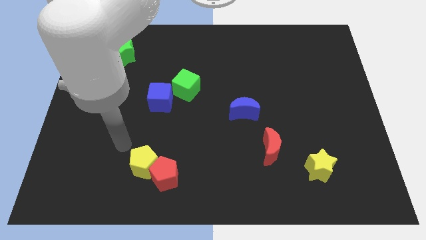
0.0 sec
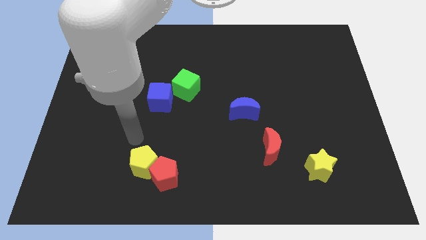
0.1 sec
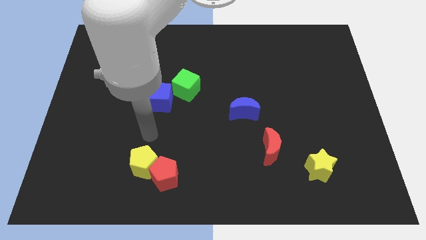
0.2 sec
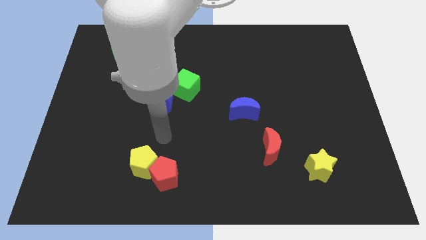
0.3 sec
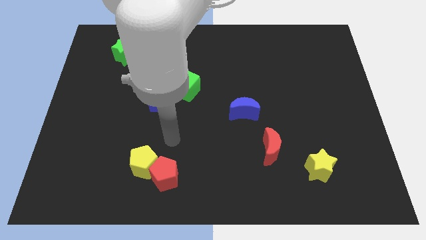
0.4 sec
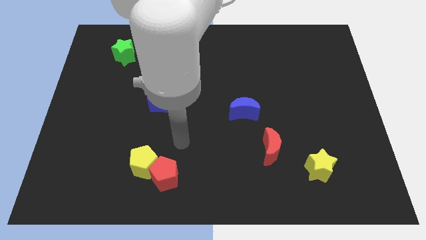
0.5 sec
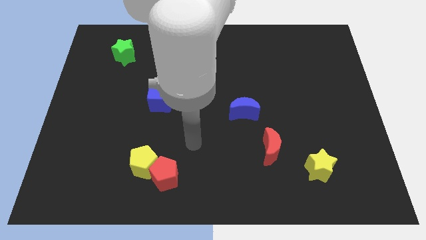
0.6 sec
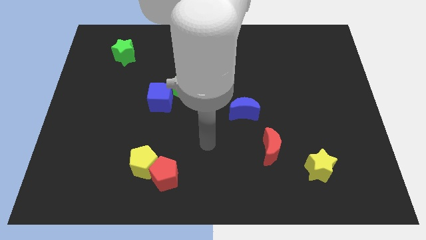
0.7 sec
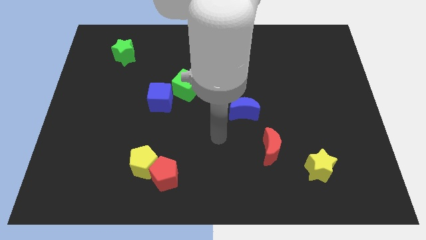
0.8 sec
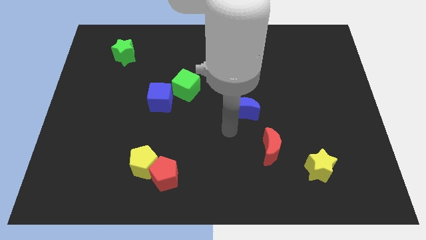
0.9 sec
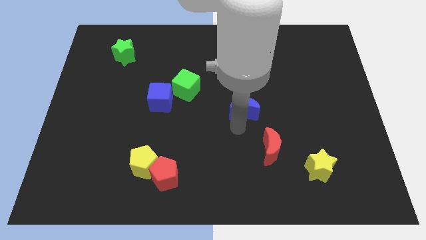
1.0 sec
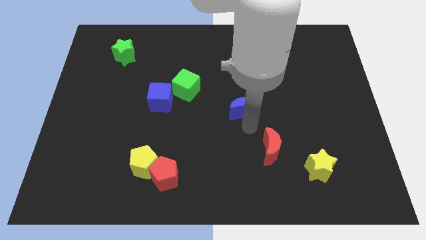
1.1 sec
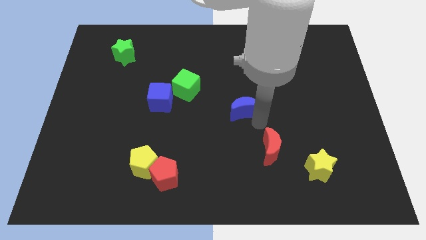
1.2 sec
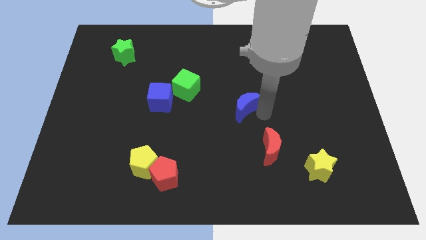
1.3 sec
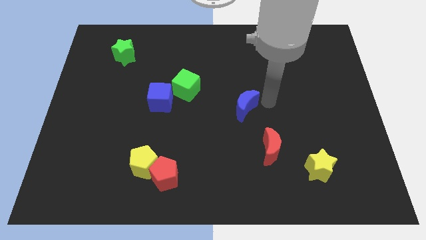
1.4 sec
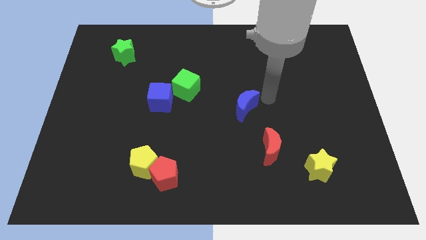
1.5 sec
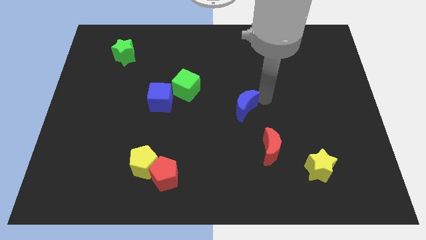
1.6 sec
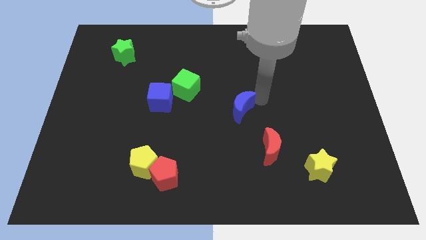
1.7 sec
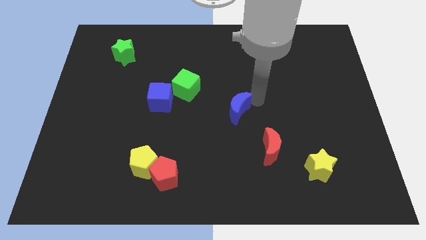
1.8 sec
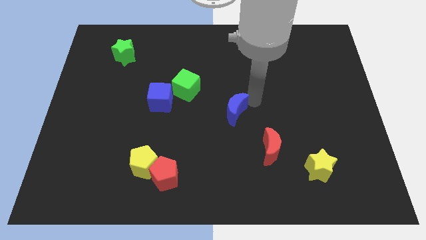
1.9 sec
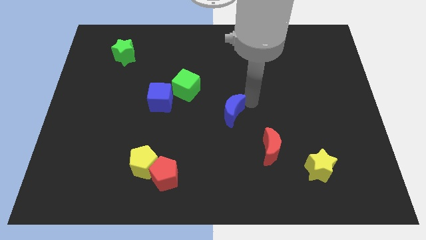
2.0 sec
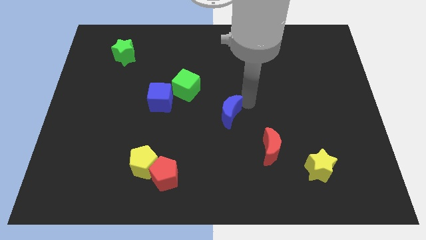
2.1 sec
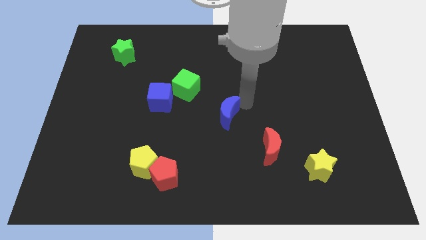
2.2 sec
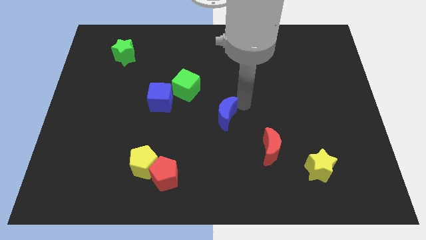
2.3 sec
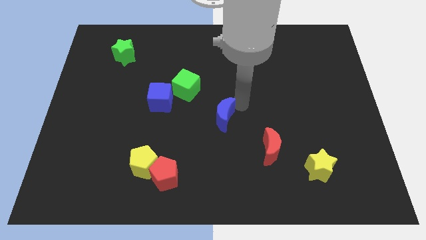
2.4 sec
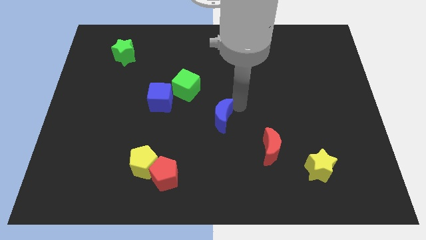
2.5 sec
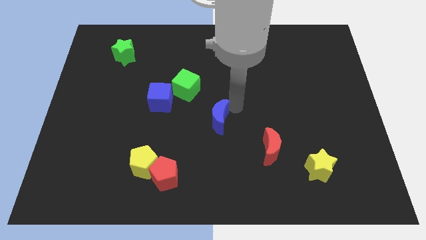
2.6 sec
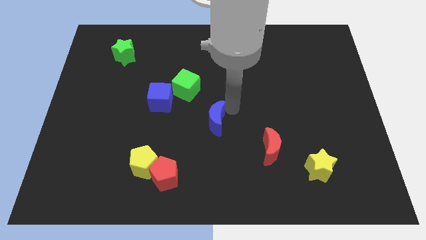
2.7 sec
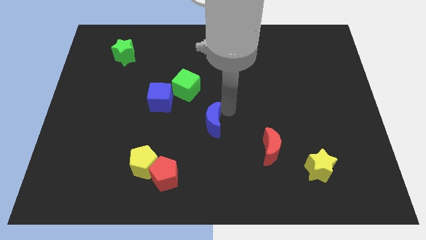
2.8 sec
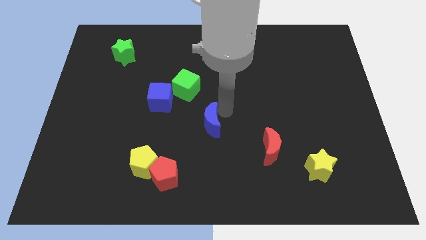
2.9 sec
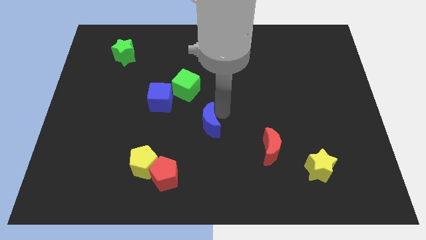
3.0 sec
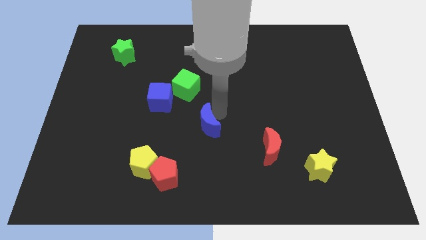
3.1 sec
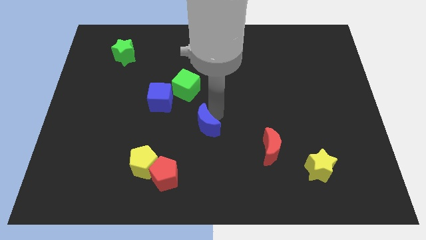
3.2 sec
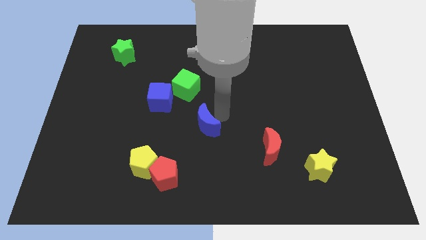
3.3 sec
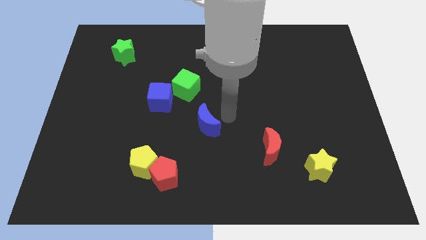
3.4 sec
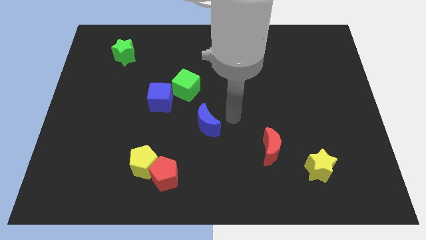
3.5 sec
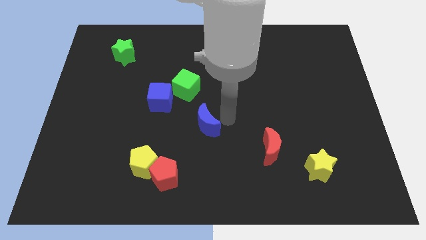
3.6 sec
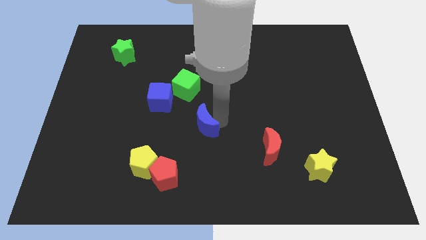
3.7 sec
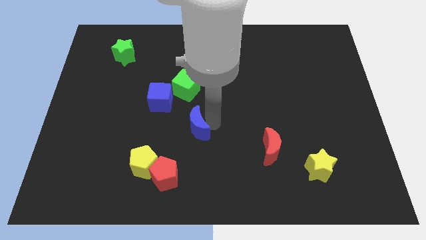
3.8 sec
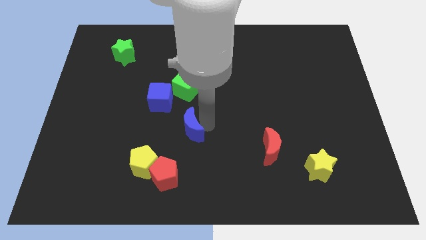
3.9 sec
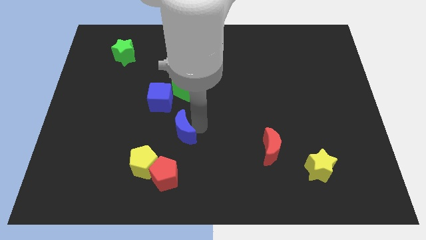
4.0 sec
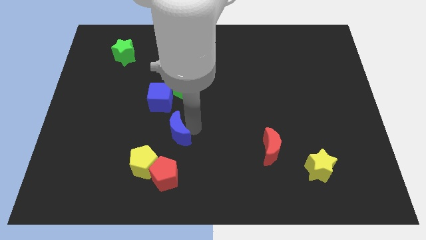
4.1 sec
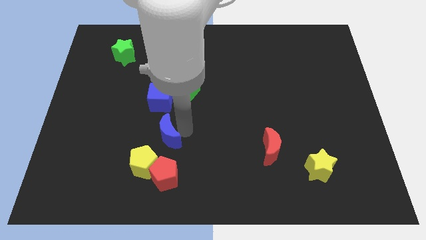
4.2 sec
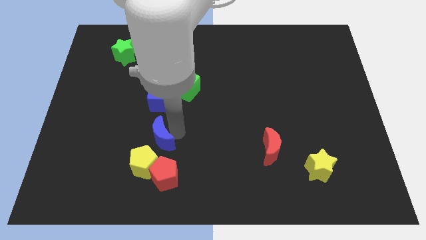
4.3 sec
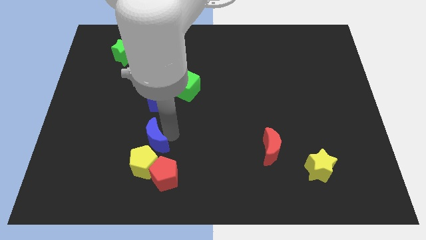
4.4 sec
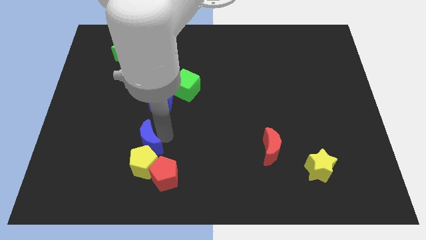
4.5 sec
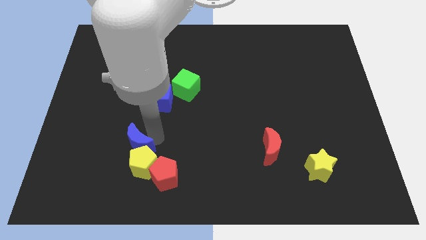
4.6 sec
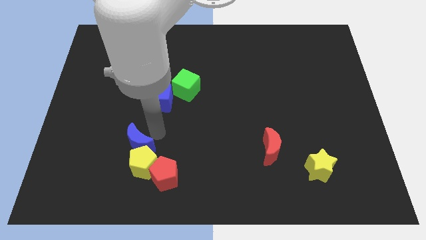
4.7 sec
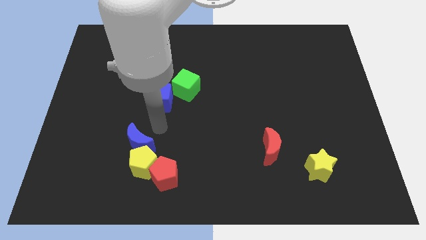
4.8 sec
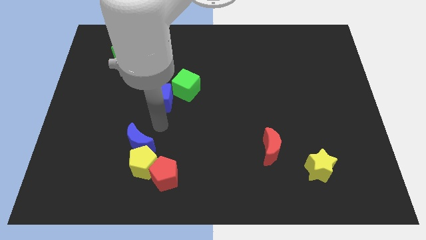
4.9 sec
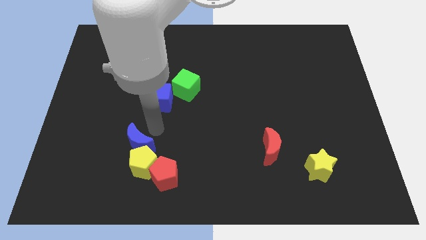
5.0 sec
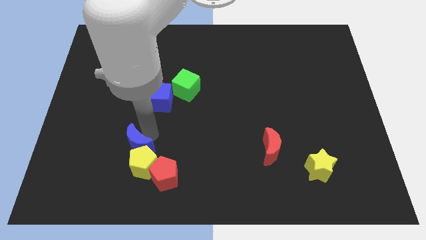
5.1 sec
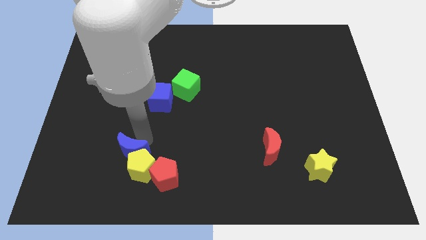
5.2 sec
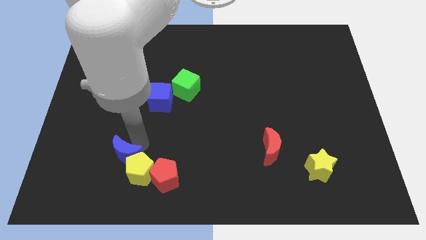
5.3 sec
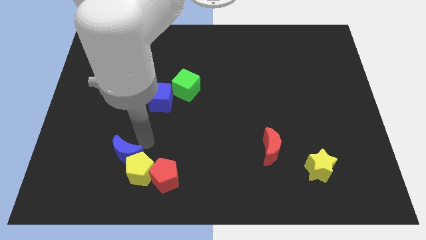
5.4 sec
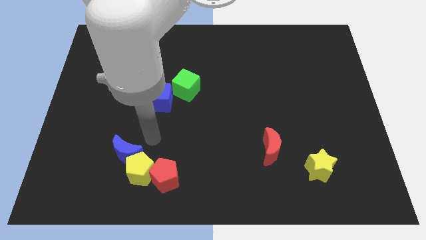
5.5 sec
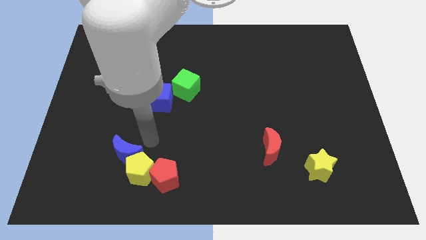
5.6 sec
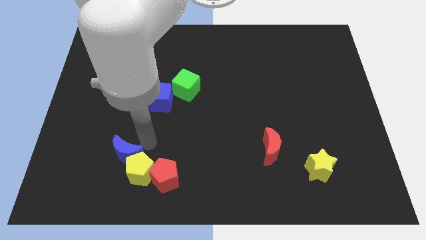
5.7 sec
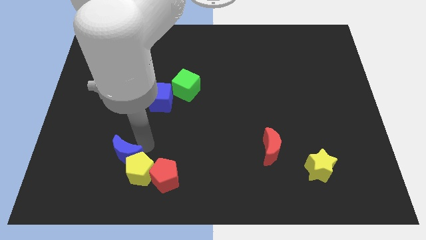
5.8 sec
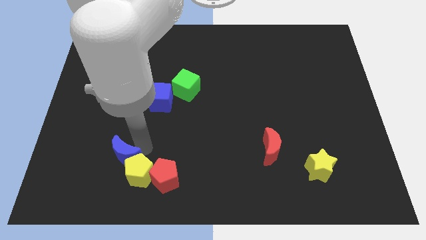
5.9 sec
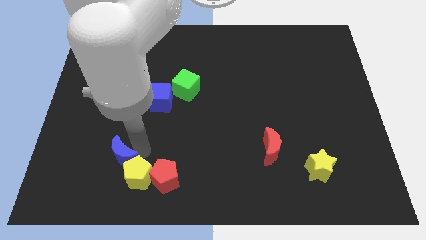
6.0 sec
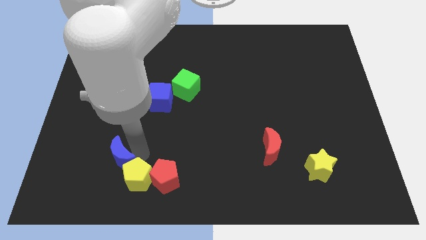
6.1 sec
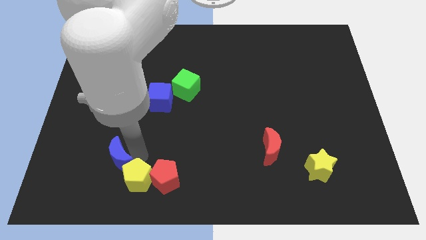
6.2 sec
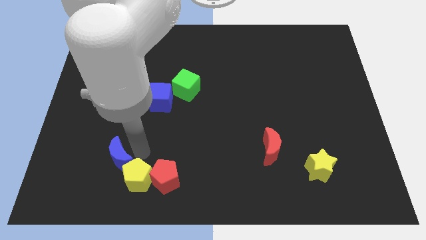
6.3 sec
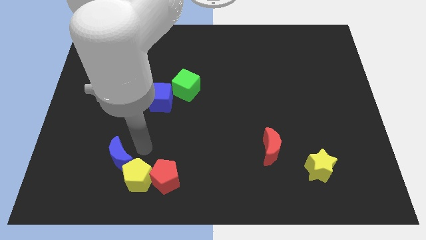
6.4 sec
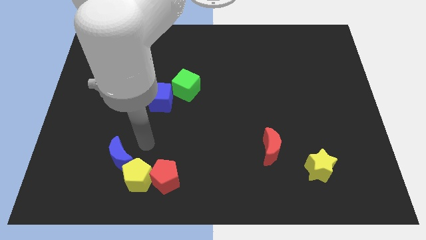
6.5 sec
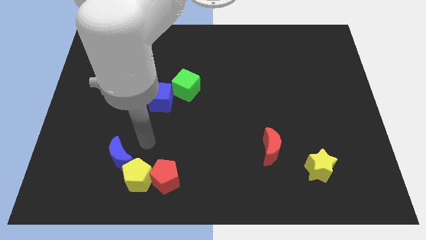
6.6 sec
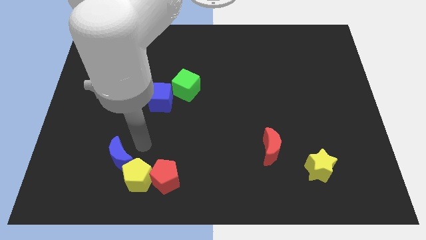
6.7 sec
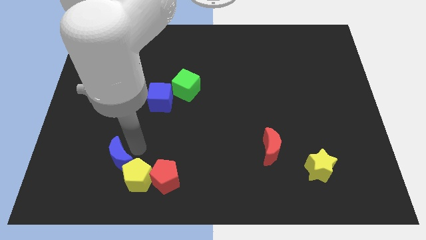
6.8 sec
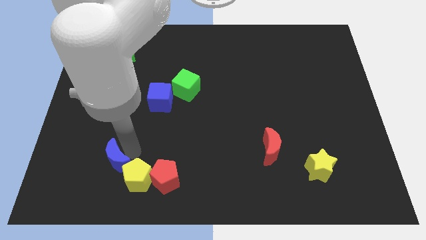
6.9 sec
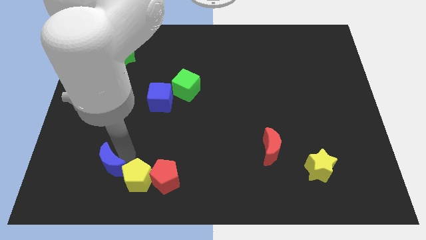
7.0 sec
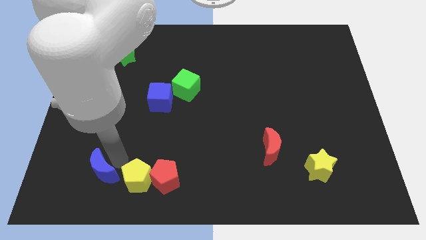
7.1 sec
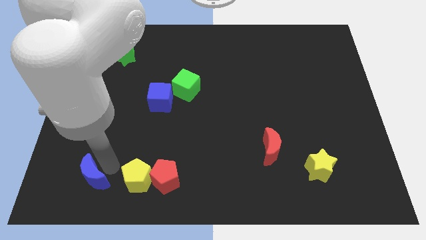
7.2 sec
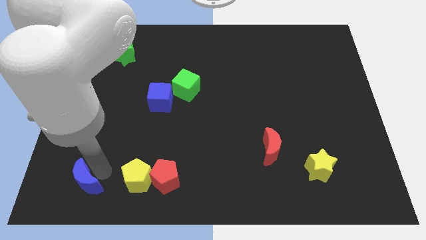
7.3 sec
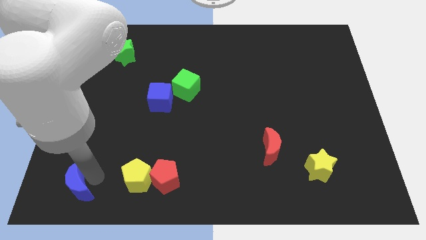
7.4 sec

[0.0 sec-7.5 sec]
put the blue moon to the bottom left of the board
